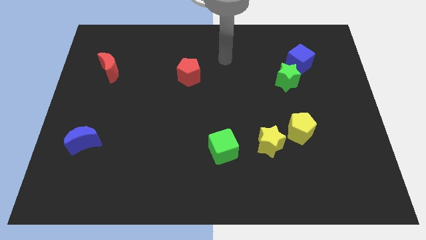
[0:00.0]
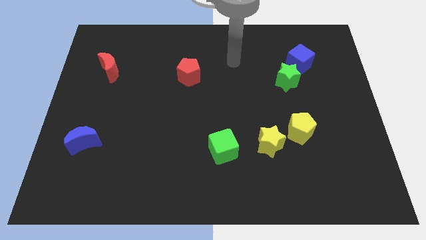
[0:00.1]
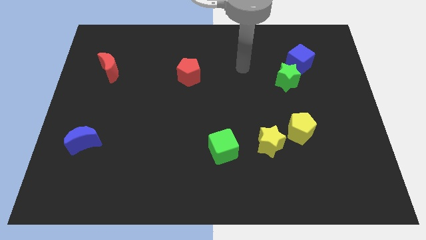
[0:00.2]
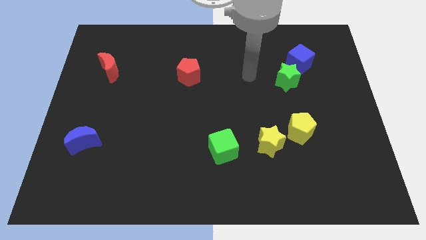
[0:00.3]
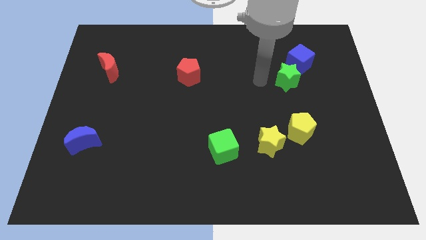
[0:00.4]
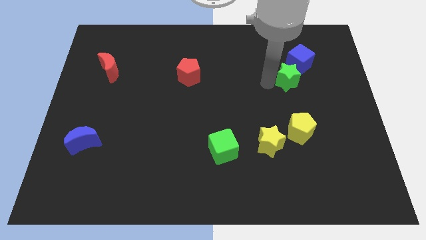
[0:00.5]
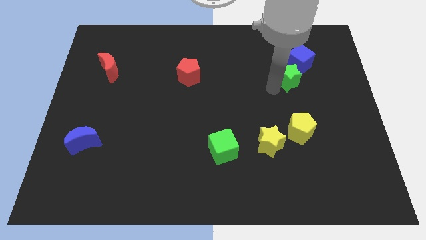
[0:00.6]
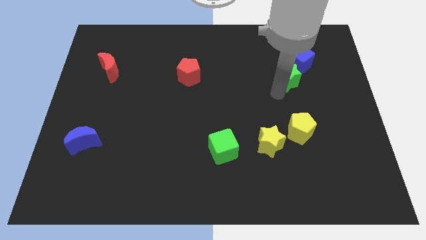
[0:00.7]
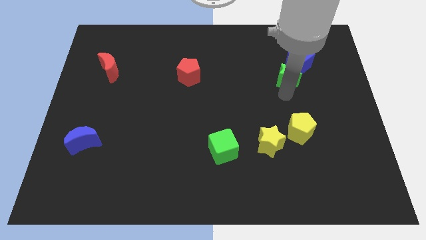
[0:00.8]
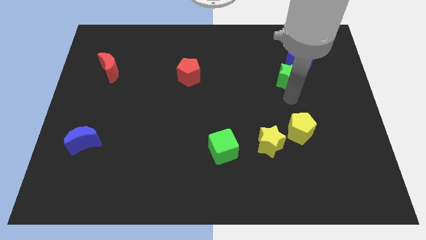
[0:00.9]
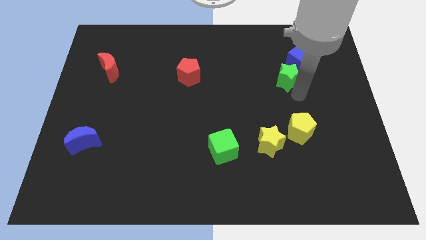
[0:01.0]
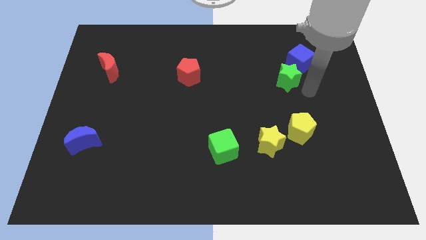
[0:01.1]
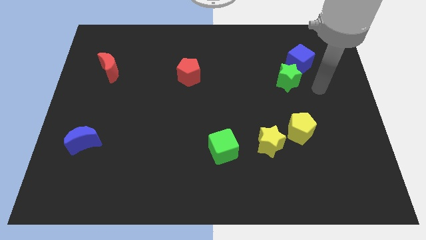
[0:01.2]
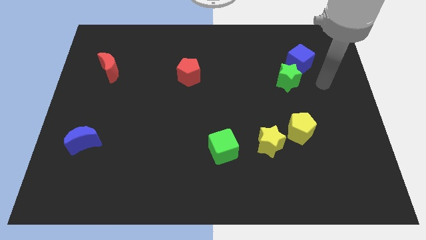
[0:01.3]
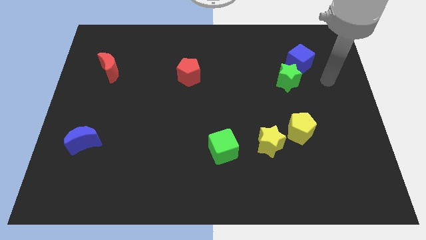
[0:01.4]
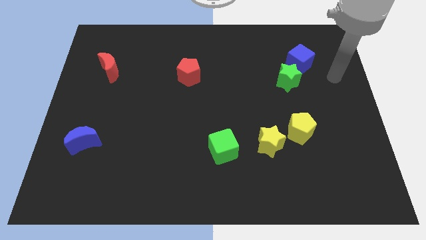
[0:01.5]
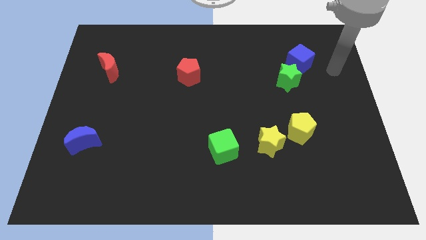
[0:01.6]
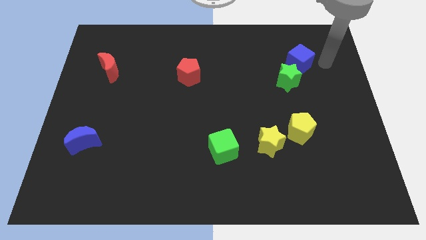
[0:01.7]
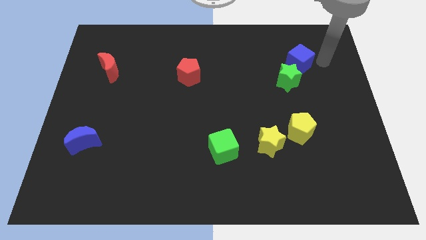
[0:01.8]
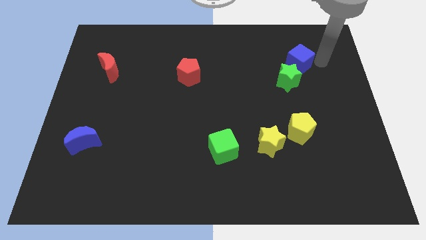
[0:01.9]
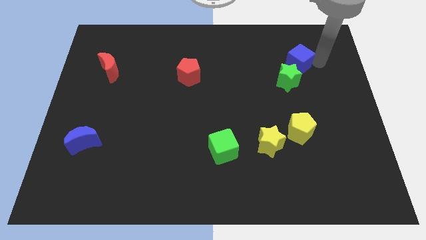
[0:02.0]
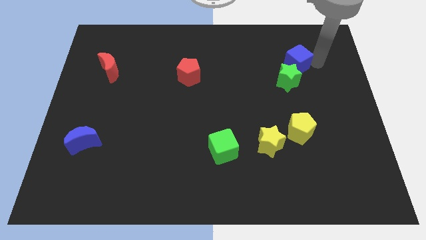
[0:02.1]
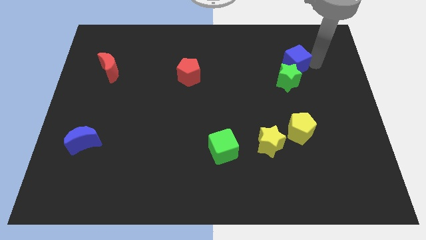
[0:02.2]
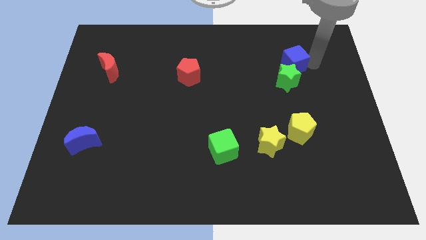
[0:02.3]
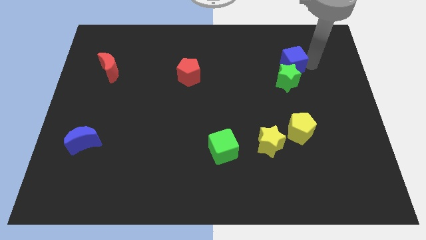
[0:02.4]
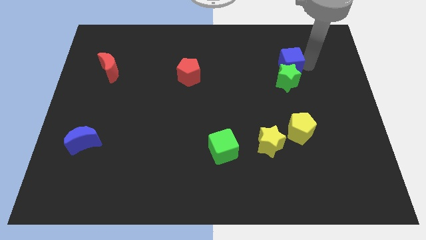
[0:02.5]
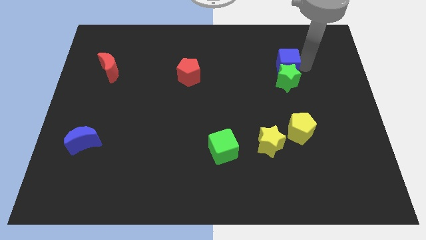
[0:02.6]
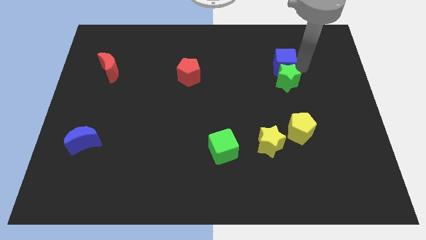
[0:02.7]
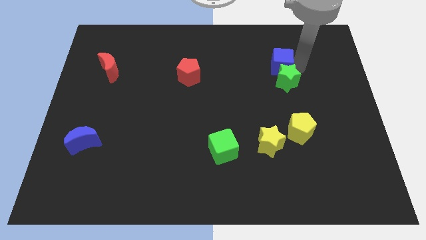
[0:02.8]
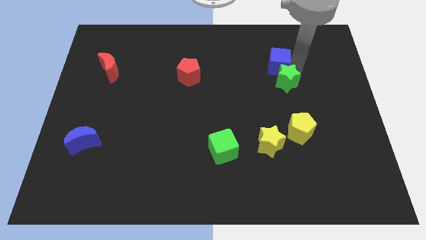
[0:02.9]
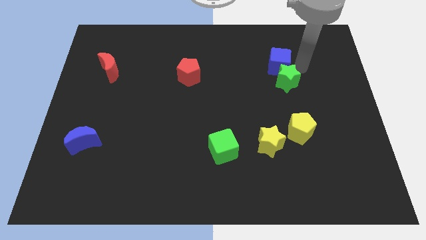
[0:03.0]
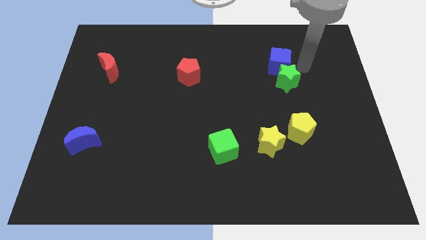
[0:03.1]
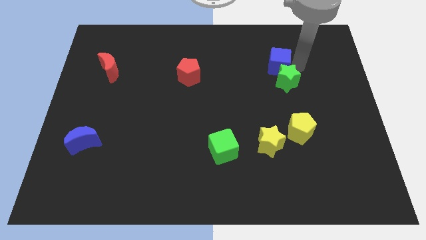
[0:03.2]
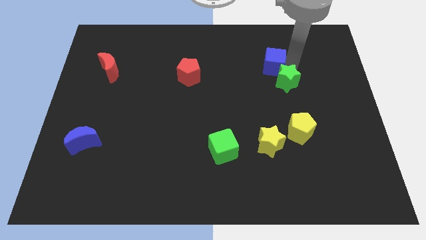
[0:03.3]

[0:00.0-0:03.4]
slide the blue cube a little bit left

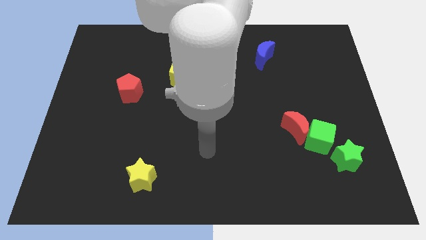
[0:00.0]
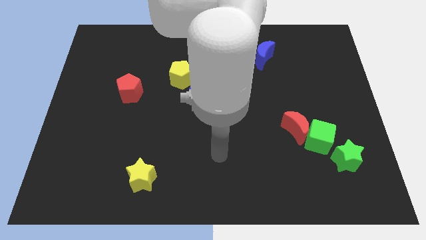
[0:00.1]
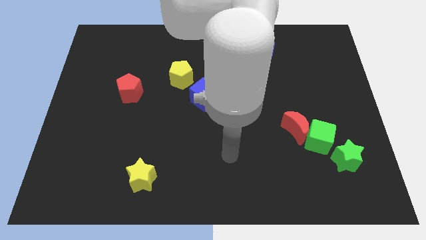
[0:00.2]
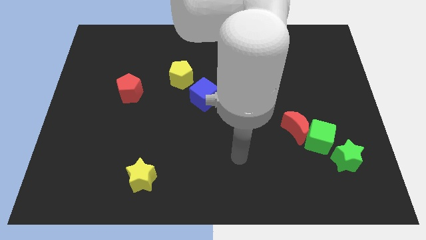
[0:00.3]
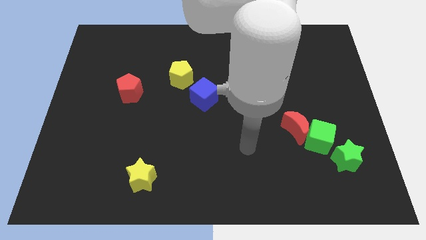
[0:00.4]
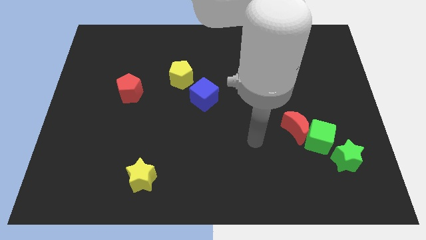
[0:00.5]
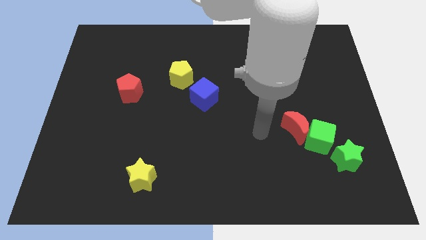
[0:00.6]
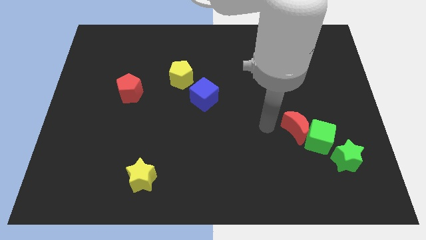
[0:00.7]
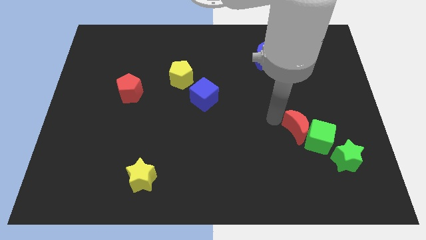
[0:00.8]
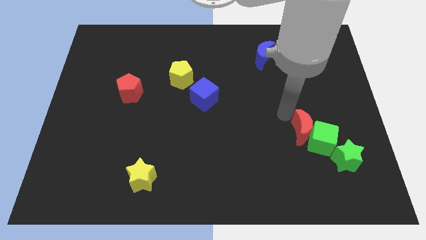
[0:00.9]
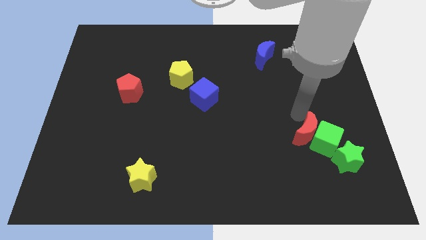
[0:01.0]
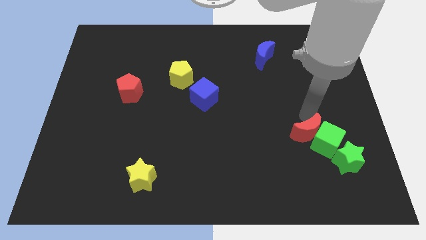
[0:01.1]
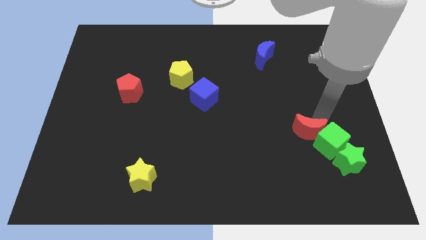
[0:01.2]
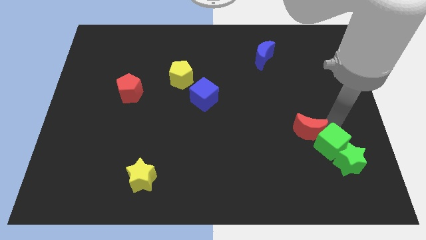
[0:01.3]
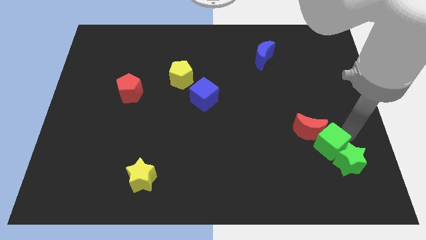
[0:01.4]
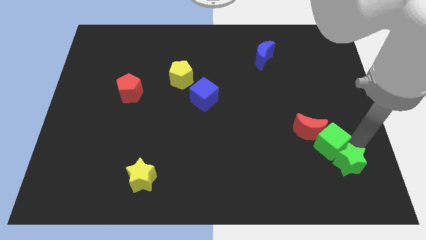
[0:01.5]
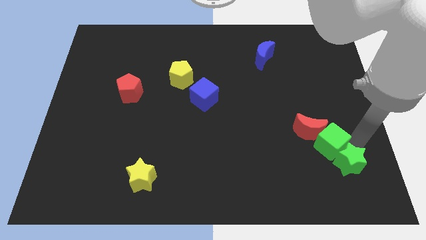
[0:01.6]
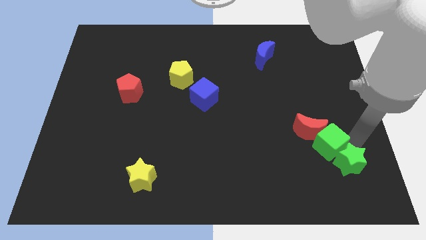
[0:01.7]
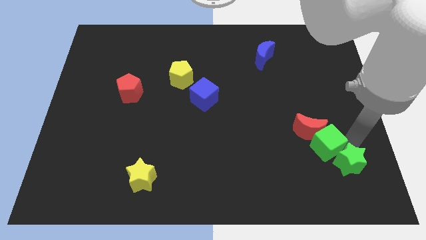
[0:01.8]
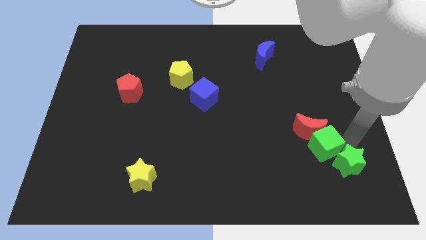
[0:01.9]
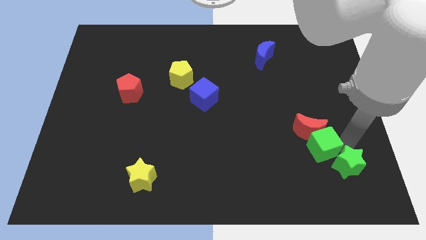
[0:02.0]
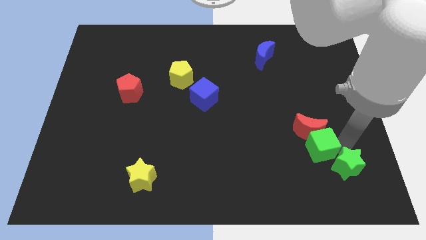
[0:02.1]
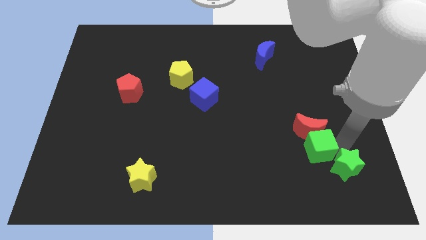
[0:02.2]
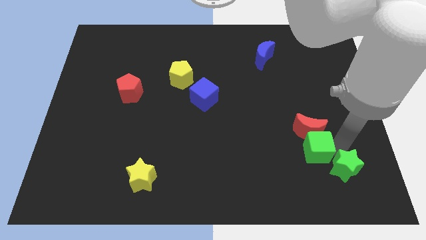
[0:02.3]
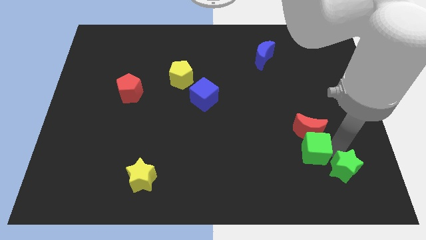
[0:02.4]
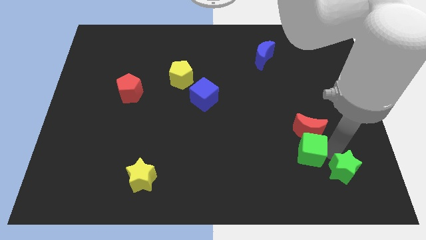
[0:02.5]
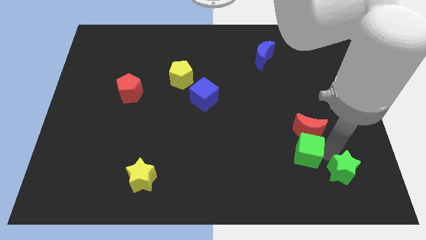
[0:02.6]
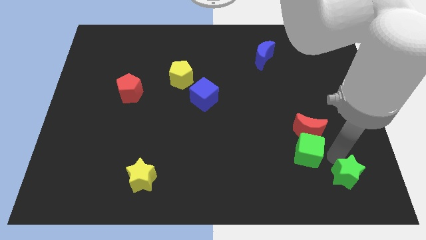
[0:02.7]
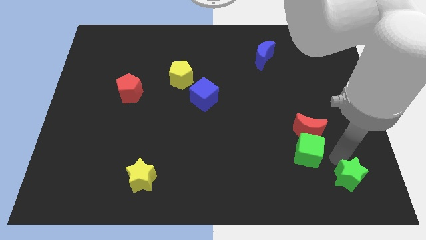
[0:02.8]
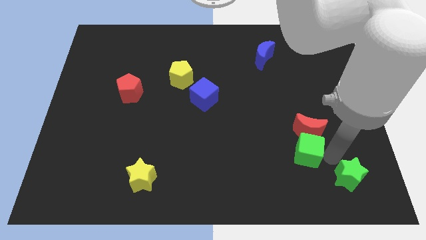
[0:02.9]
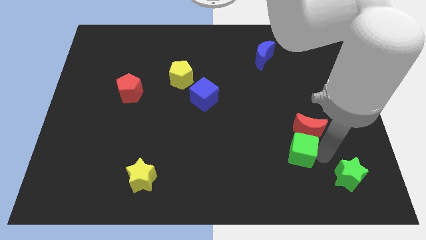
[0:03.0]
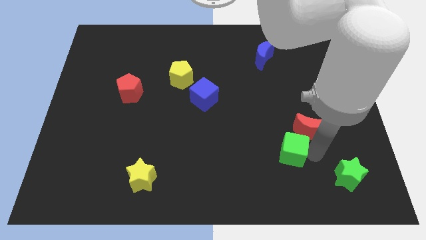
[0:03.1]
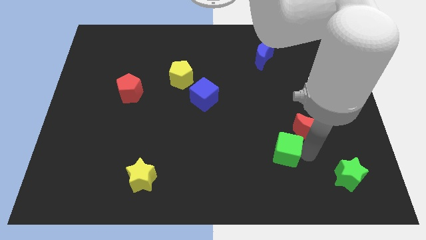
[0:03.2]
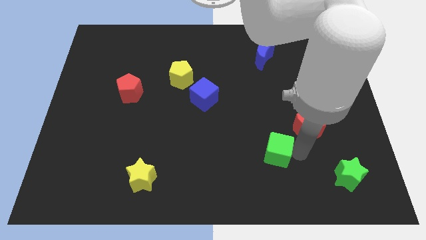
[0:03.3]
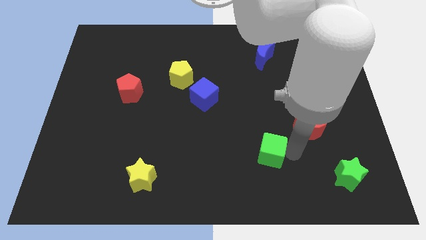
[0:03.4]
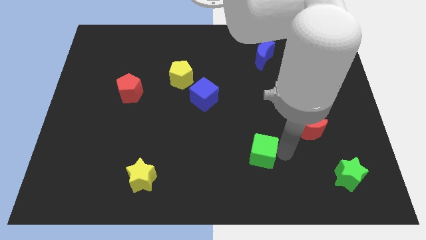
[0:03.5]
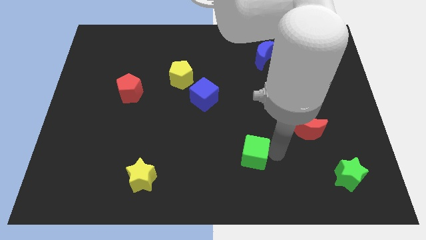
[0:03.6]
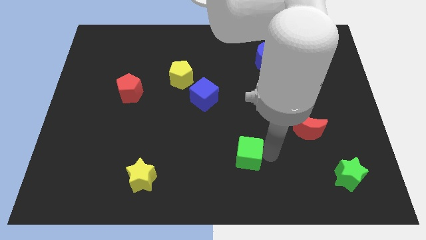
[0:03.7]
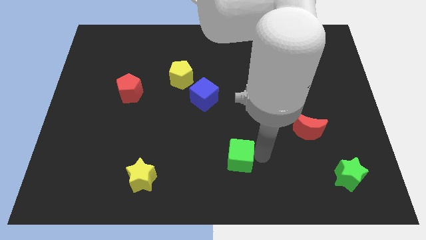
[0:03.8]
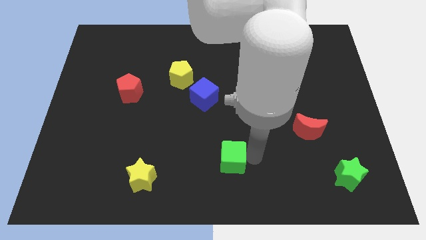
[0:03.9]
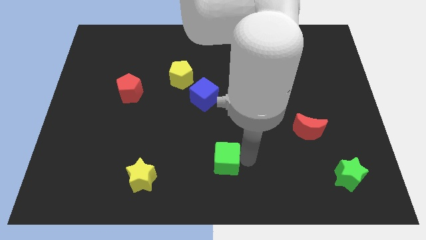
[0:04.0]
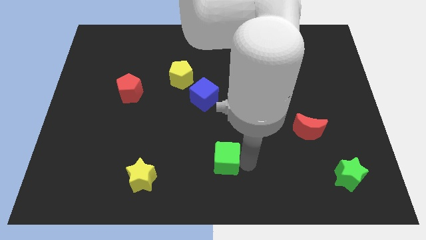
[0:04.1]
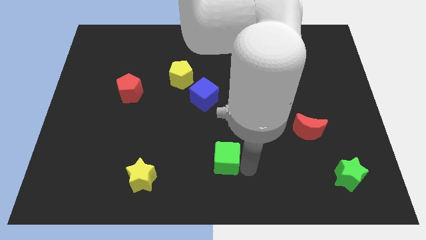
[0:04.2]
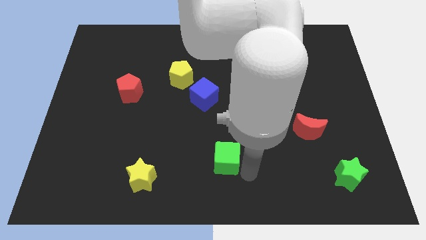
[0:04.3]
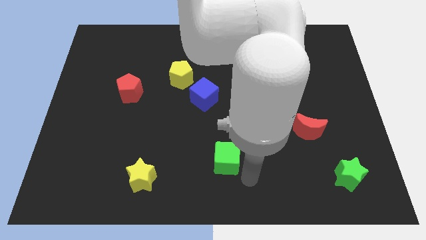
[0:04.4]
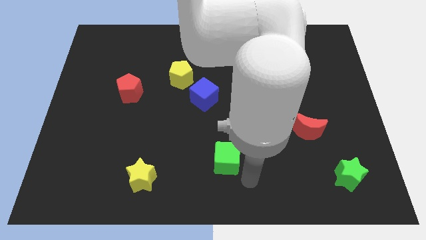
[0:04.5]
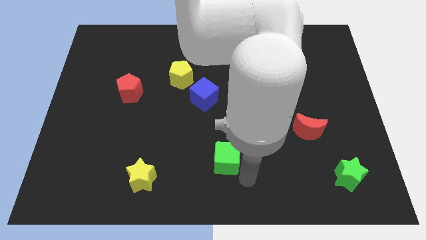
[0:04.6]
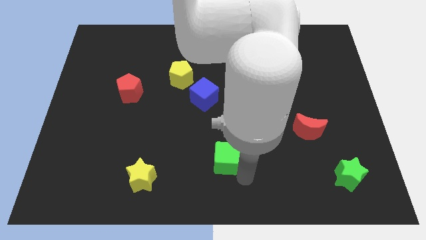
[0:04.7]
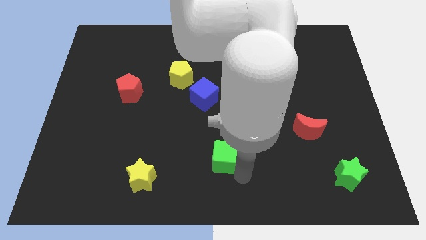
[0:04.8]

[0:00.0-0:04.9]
move the green cube to the left
